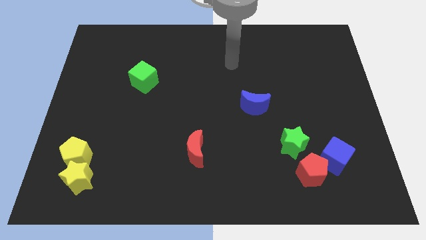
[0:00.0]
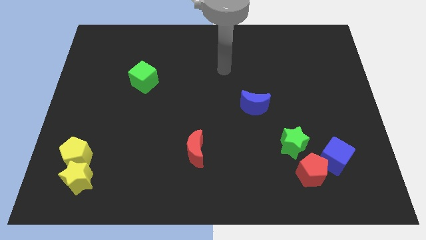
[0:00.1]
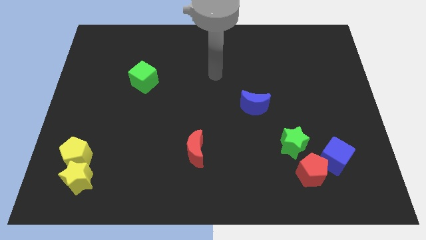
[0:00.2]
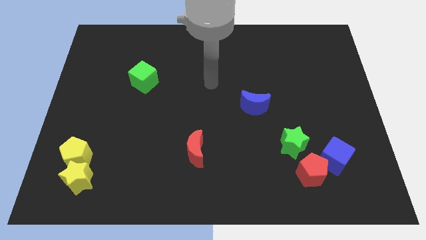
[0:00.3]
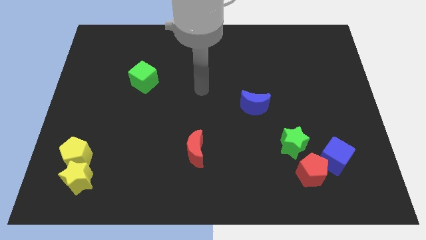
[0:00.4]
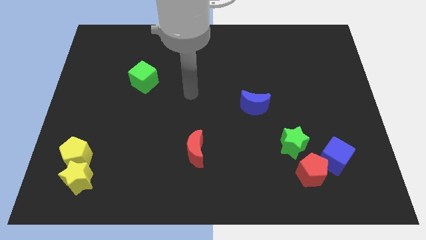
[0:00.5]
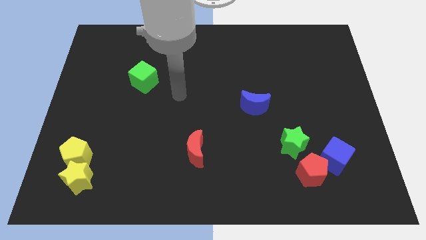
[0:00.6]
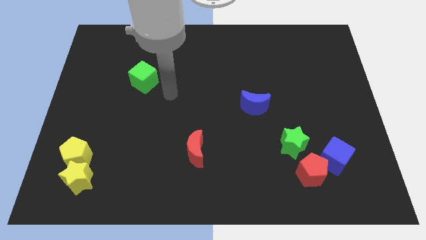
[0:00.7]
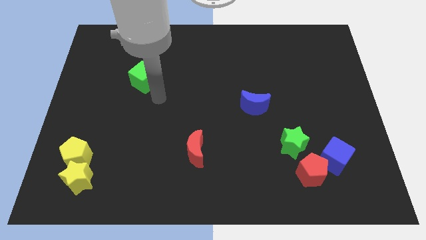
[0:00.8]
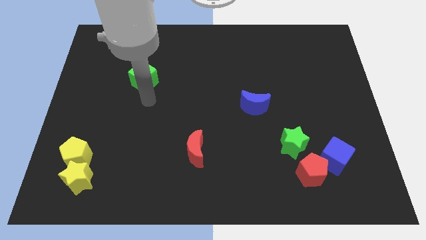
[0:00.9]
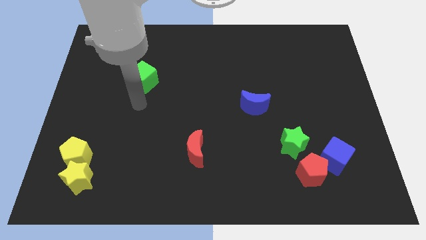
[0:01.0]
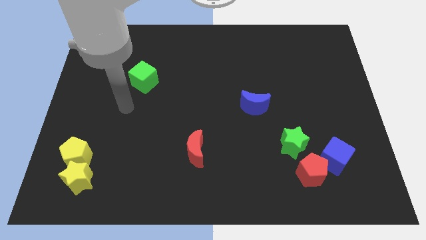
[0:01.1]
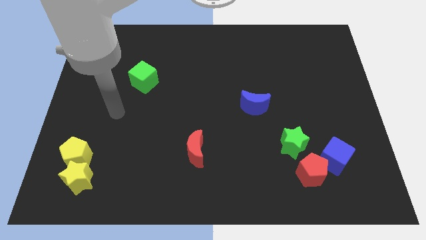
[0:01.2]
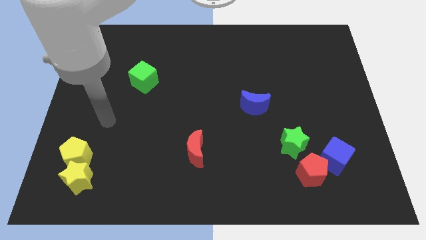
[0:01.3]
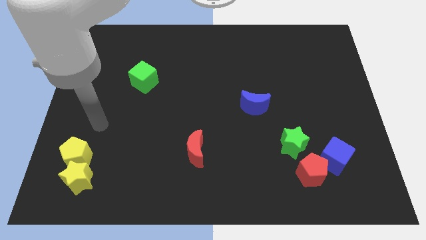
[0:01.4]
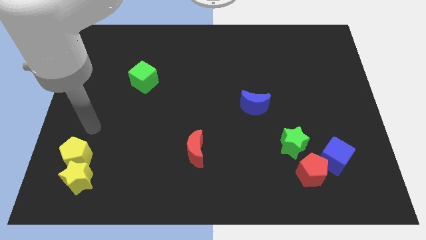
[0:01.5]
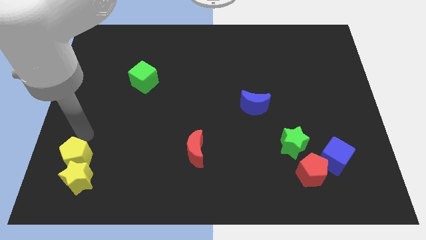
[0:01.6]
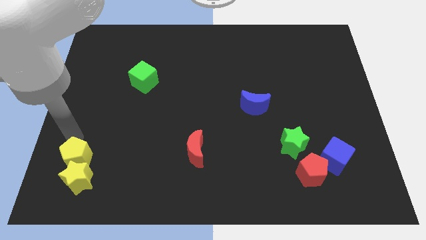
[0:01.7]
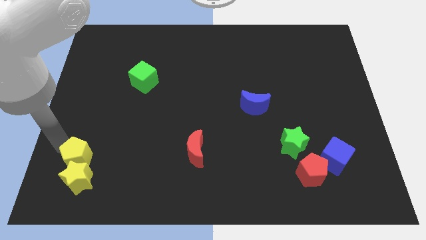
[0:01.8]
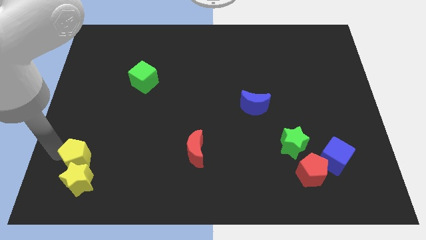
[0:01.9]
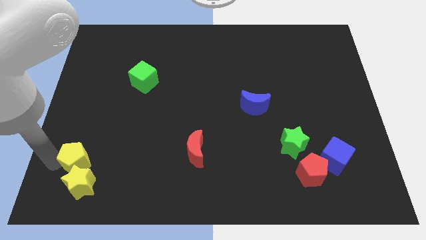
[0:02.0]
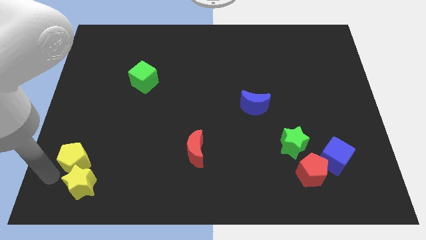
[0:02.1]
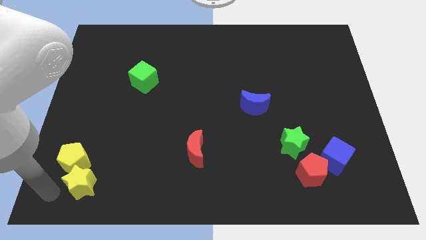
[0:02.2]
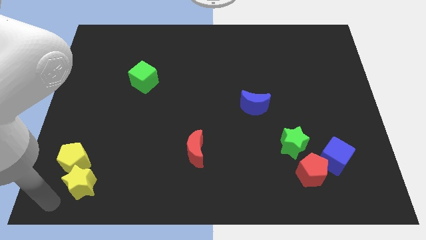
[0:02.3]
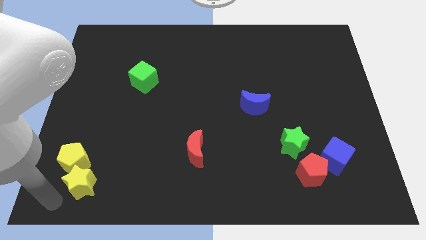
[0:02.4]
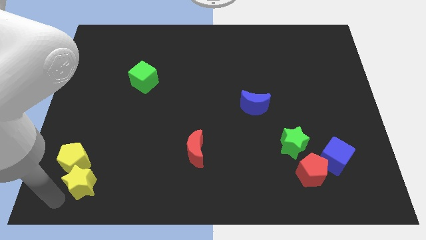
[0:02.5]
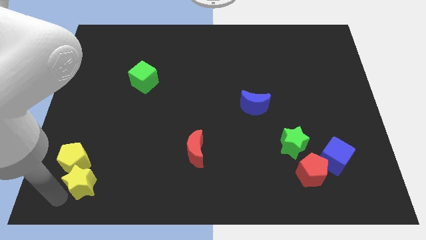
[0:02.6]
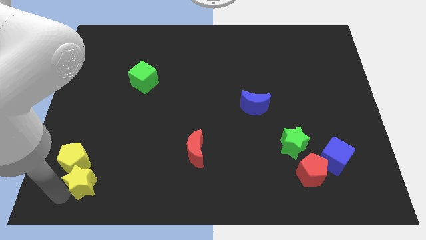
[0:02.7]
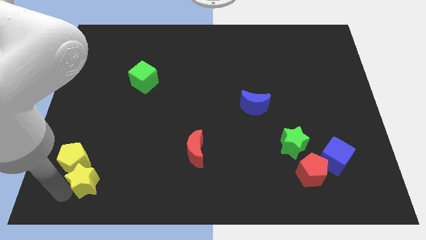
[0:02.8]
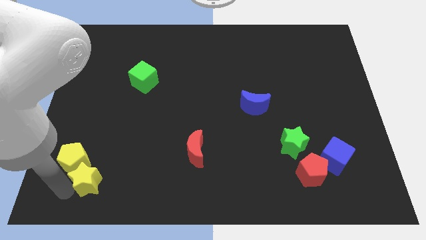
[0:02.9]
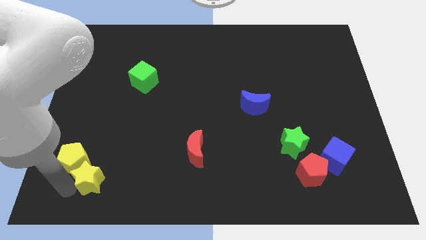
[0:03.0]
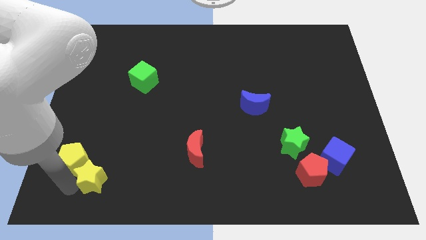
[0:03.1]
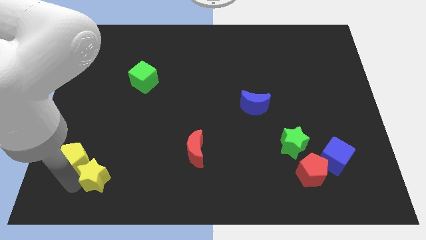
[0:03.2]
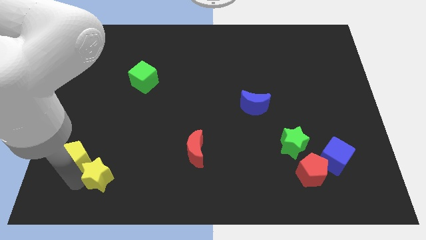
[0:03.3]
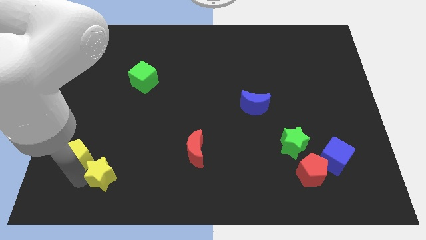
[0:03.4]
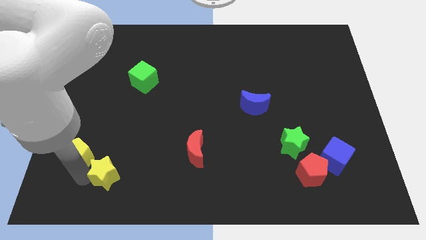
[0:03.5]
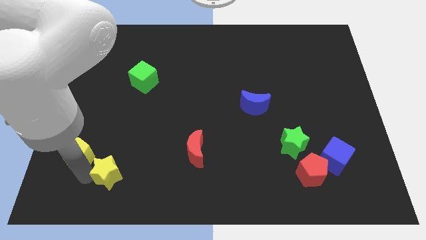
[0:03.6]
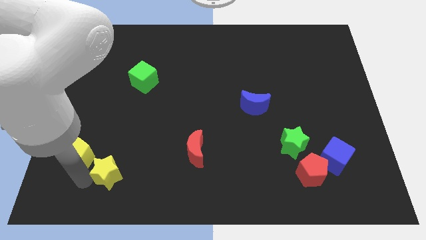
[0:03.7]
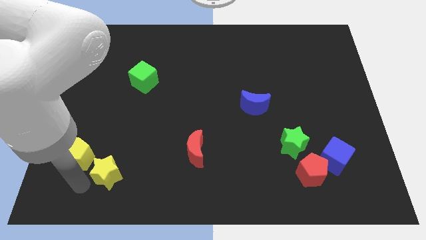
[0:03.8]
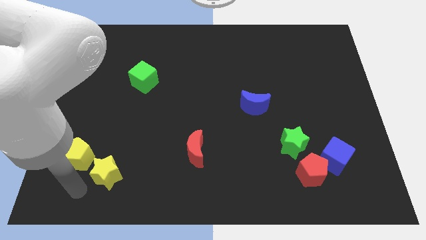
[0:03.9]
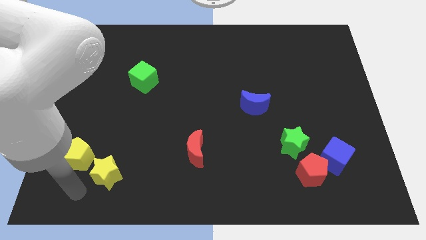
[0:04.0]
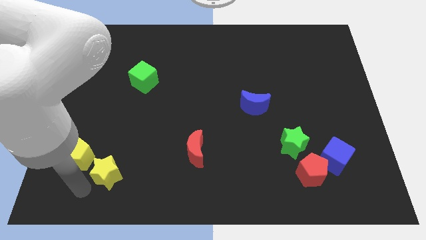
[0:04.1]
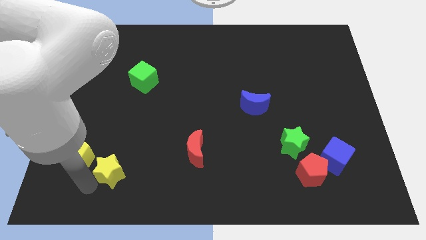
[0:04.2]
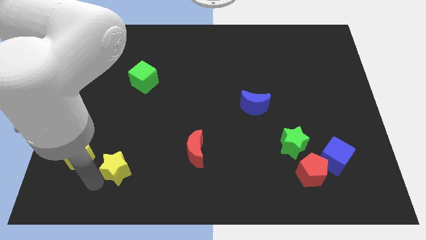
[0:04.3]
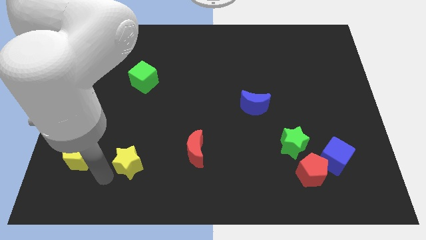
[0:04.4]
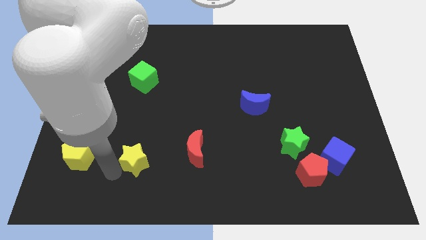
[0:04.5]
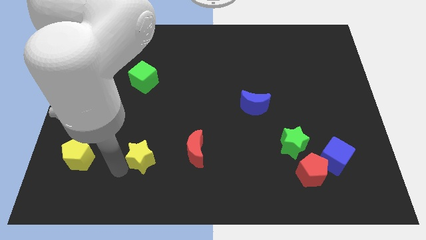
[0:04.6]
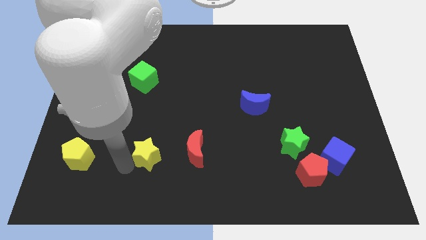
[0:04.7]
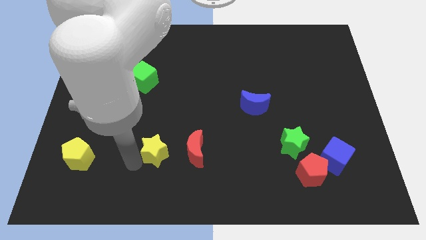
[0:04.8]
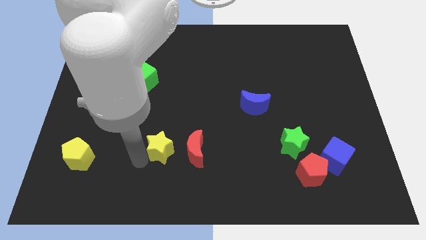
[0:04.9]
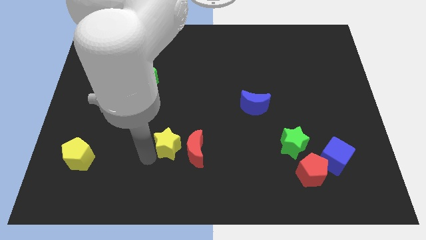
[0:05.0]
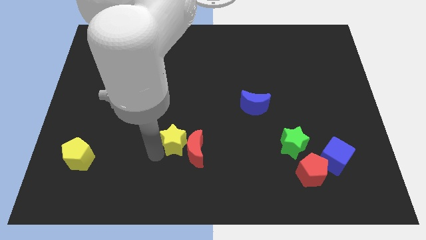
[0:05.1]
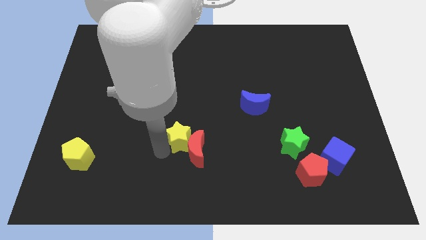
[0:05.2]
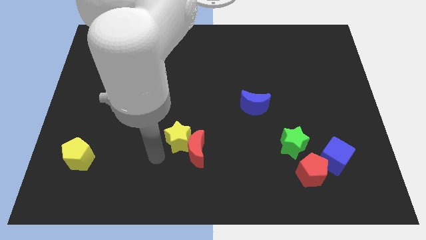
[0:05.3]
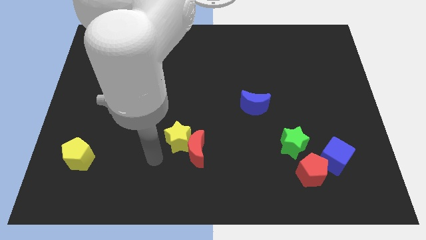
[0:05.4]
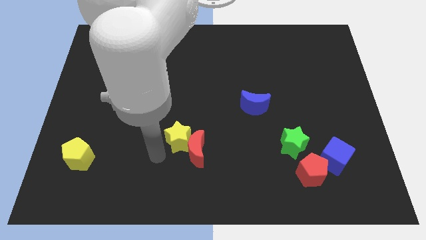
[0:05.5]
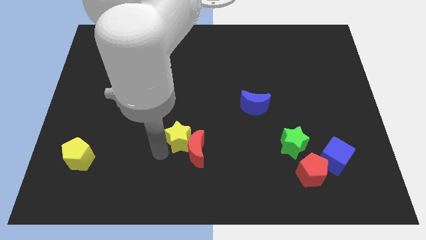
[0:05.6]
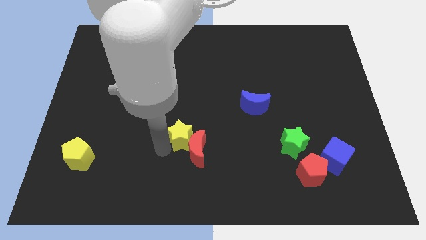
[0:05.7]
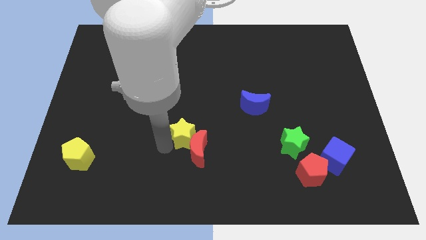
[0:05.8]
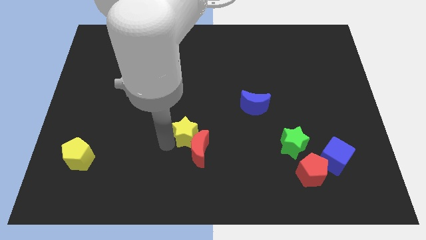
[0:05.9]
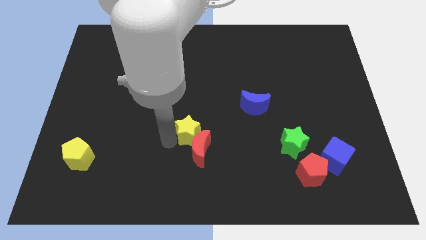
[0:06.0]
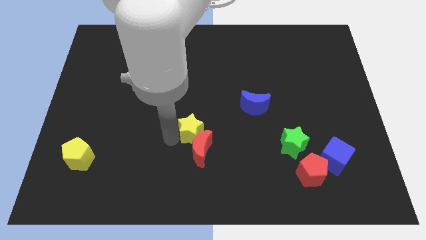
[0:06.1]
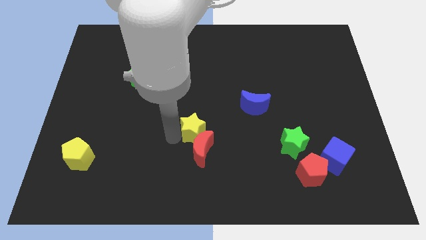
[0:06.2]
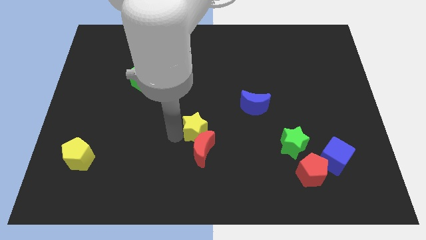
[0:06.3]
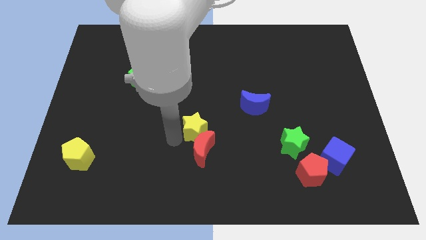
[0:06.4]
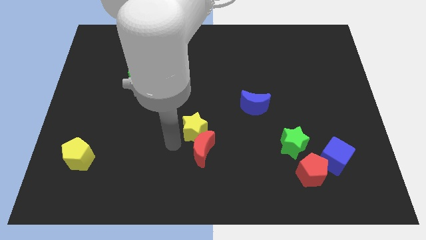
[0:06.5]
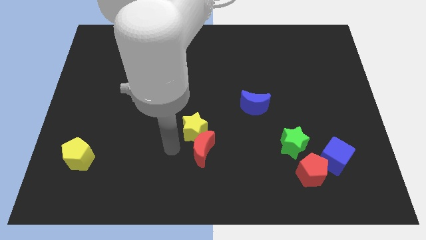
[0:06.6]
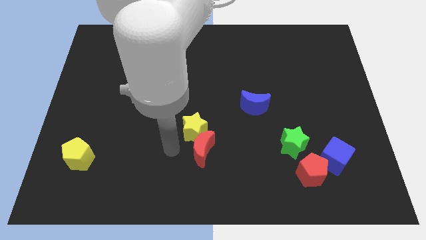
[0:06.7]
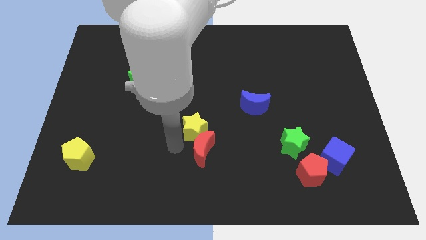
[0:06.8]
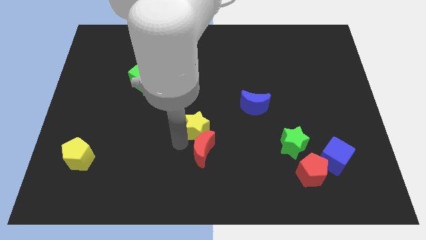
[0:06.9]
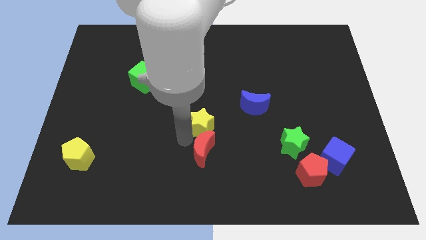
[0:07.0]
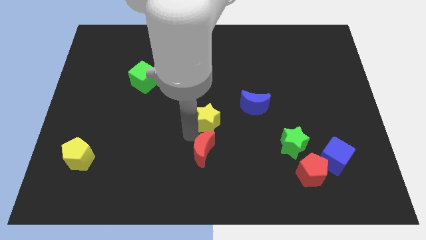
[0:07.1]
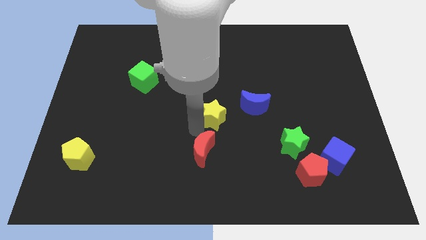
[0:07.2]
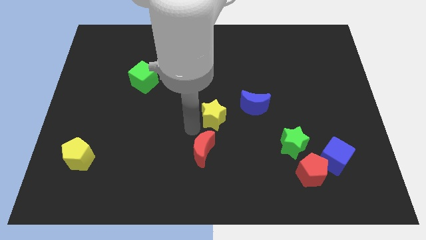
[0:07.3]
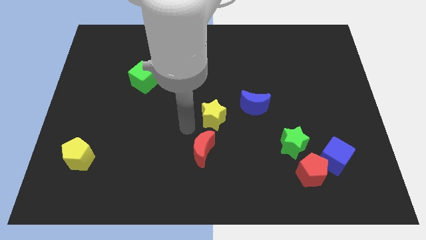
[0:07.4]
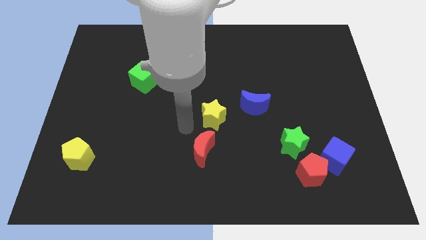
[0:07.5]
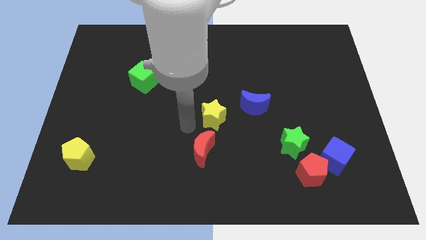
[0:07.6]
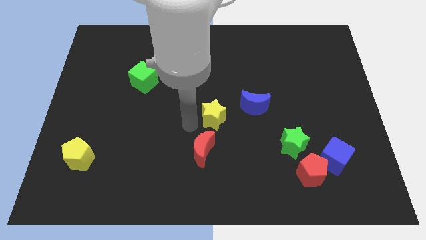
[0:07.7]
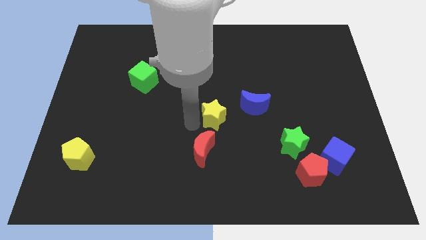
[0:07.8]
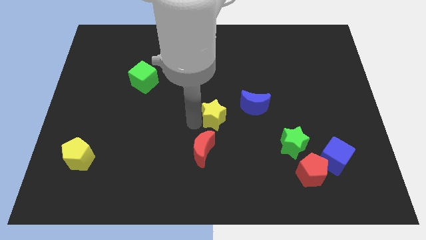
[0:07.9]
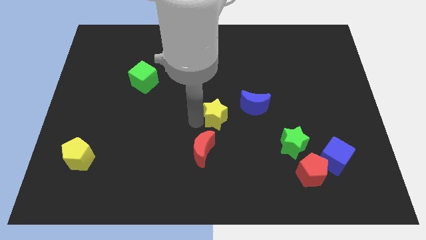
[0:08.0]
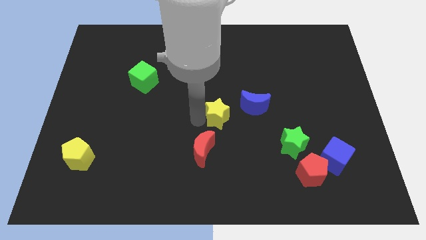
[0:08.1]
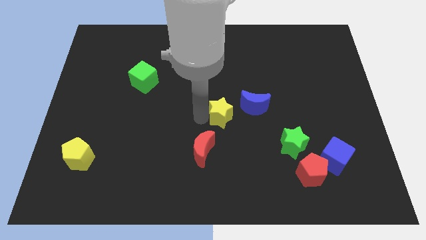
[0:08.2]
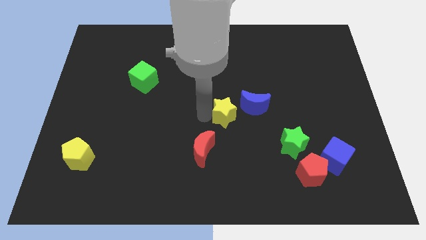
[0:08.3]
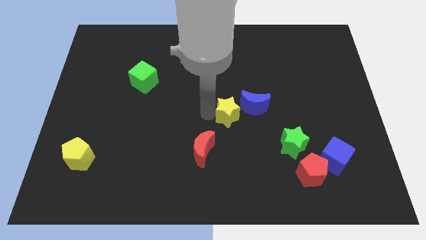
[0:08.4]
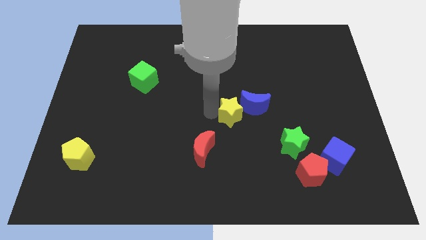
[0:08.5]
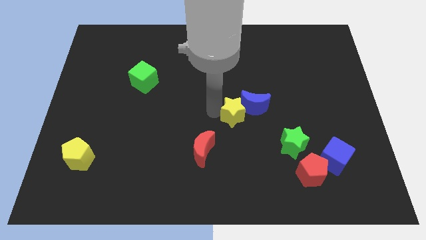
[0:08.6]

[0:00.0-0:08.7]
push the yellow star next to the blue moon
